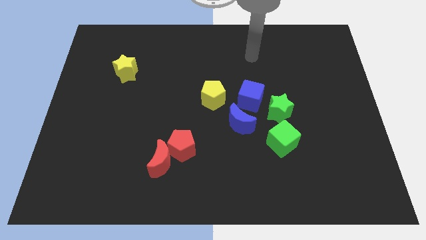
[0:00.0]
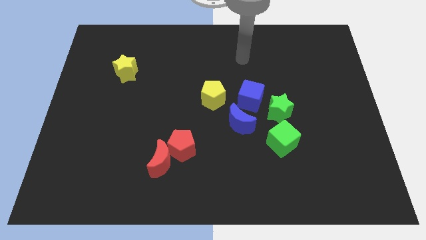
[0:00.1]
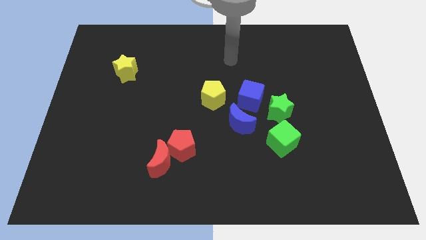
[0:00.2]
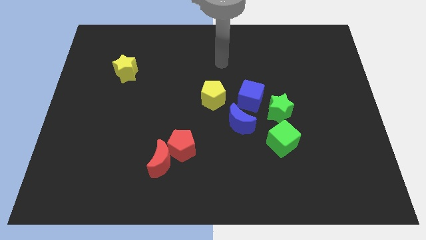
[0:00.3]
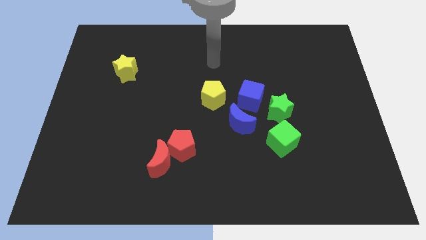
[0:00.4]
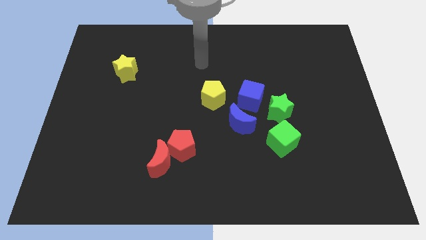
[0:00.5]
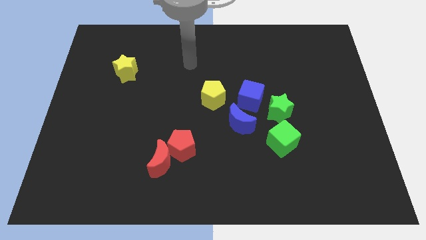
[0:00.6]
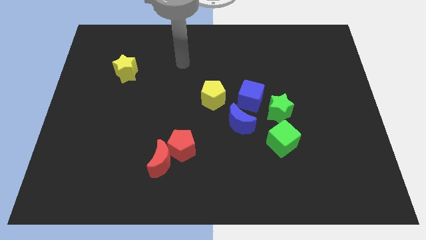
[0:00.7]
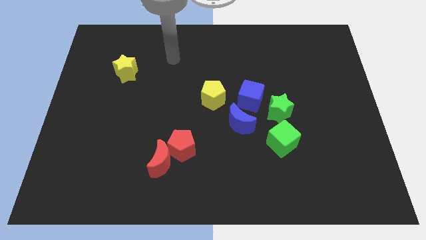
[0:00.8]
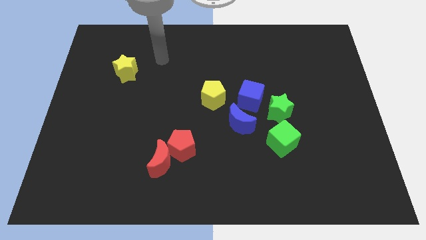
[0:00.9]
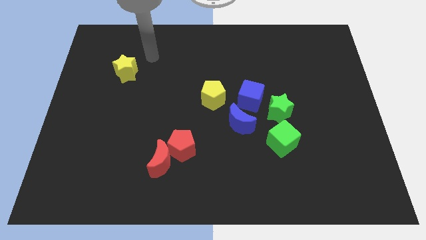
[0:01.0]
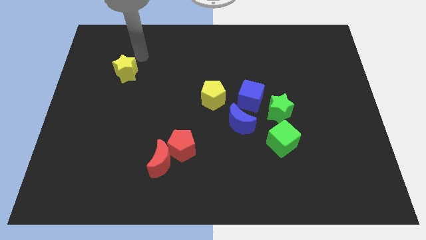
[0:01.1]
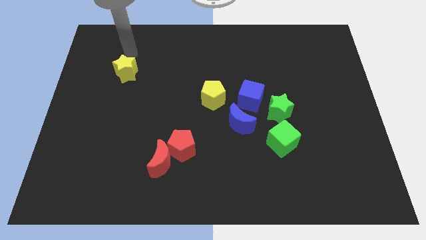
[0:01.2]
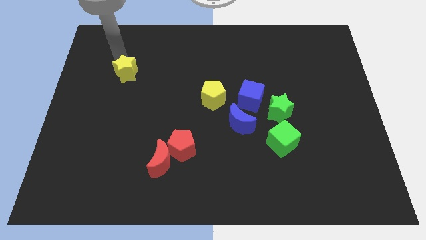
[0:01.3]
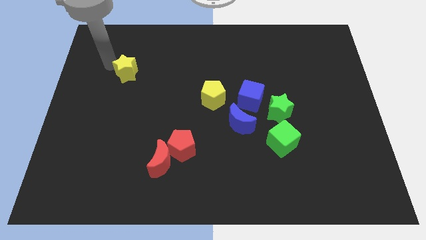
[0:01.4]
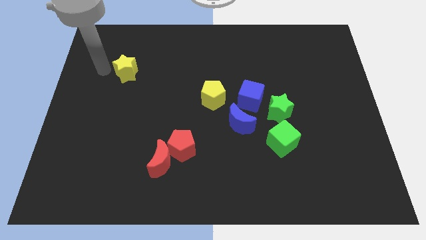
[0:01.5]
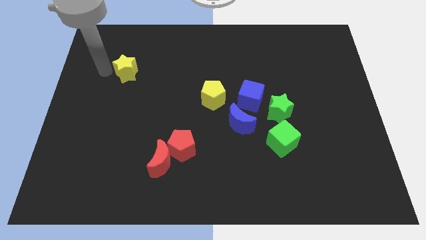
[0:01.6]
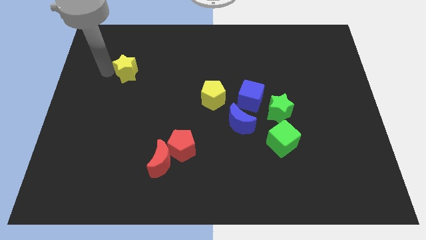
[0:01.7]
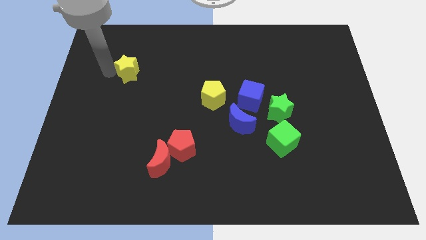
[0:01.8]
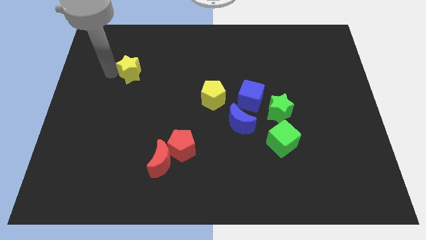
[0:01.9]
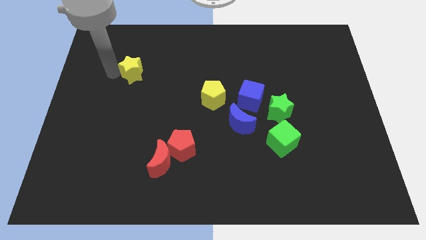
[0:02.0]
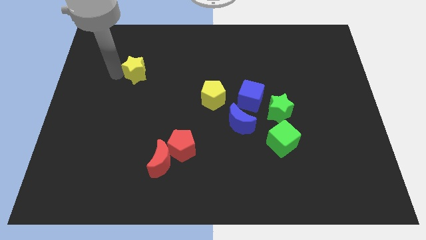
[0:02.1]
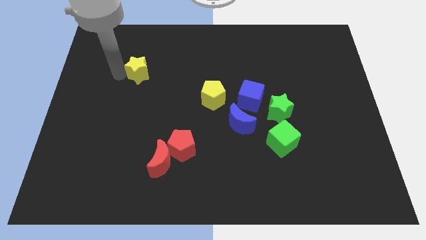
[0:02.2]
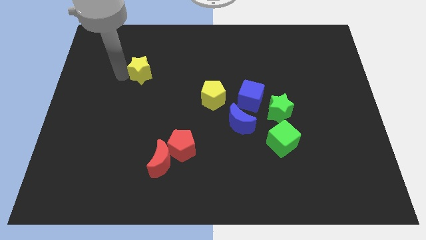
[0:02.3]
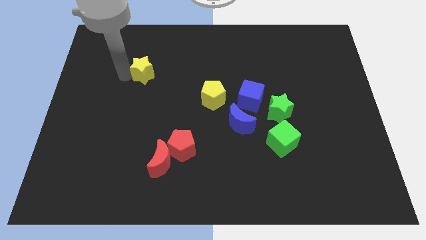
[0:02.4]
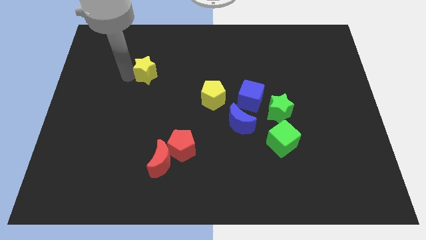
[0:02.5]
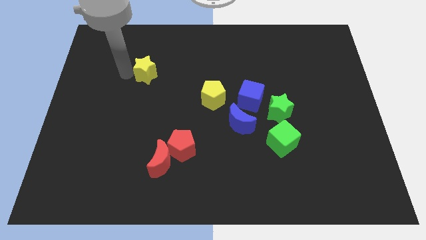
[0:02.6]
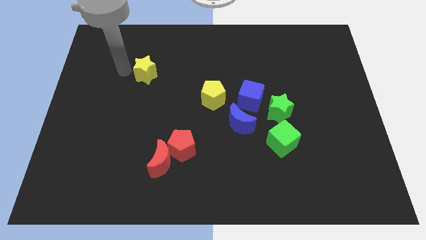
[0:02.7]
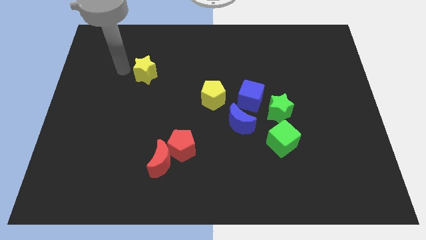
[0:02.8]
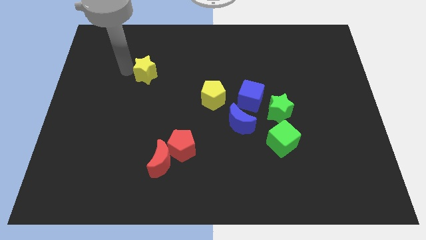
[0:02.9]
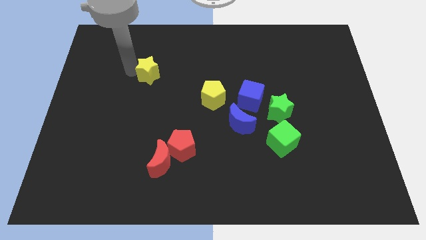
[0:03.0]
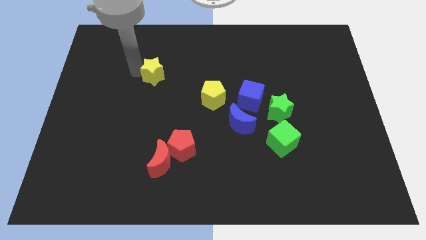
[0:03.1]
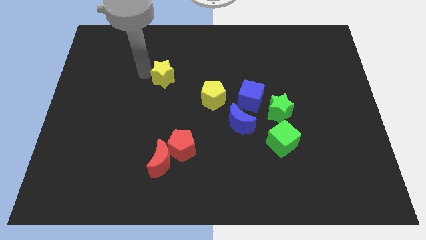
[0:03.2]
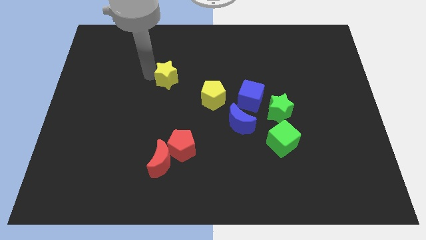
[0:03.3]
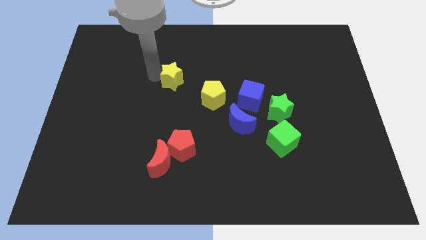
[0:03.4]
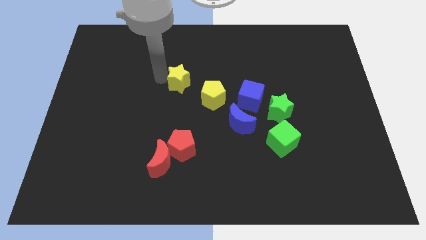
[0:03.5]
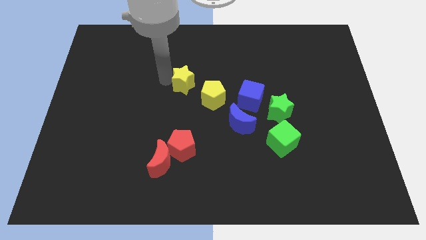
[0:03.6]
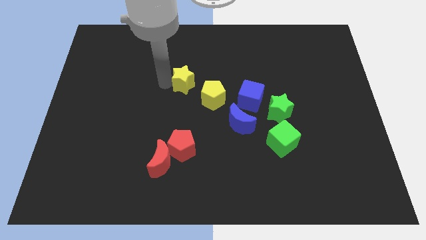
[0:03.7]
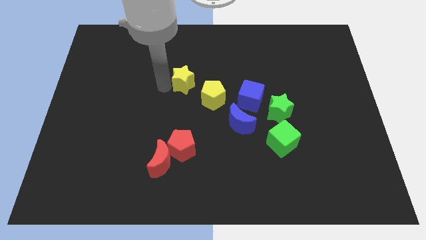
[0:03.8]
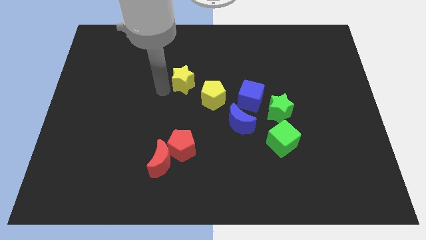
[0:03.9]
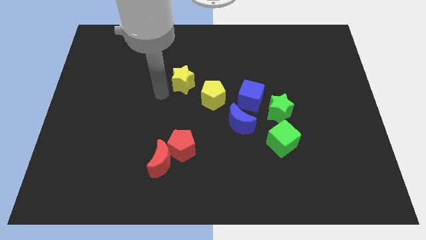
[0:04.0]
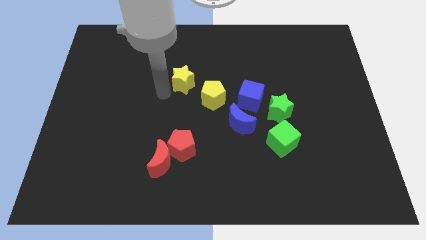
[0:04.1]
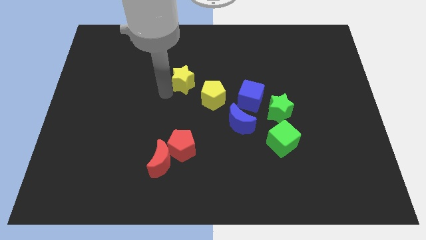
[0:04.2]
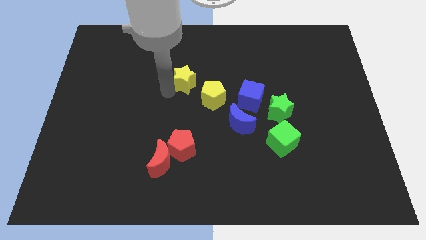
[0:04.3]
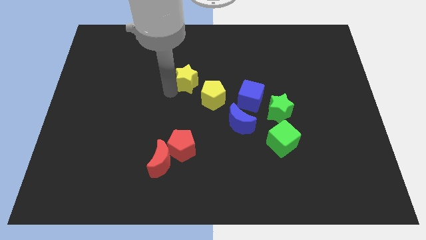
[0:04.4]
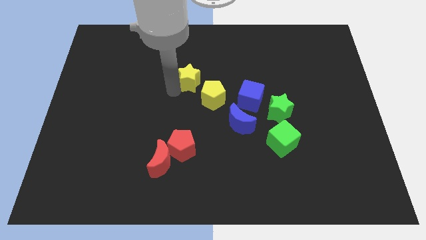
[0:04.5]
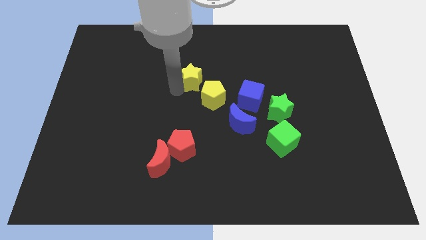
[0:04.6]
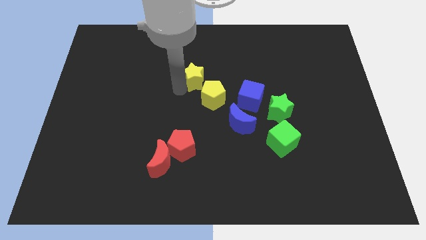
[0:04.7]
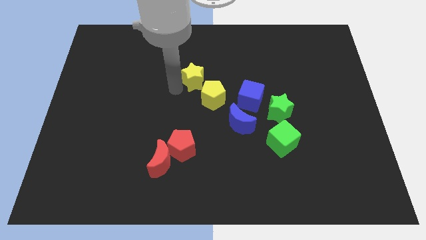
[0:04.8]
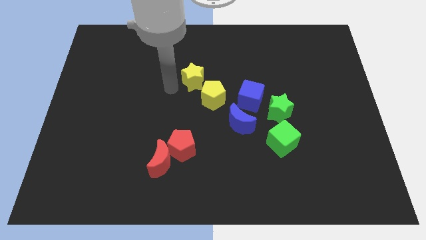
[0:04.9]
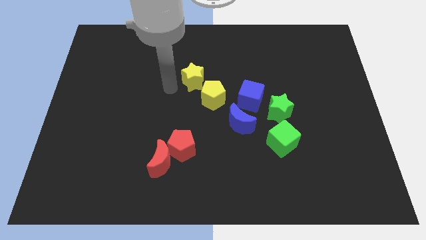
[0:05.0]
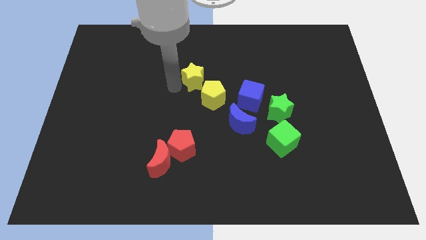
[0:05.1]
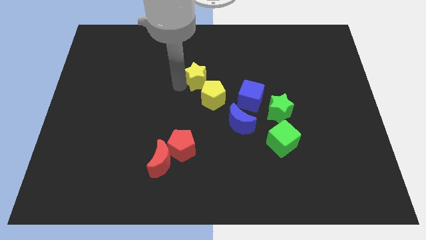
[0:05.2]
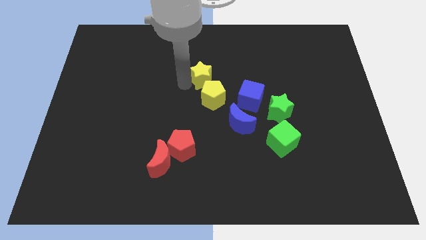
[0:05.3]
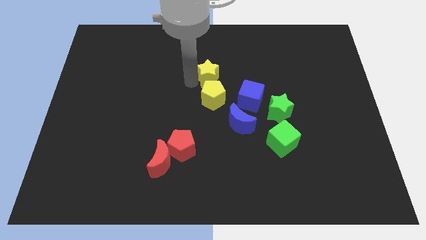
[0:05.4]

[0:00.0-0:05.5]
push the yellow star to the right

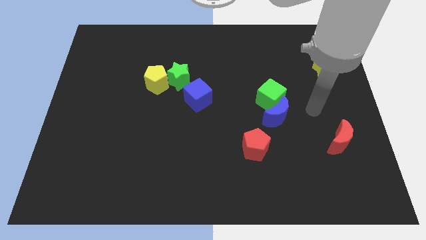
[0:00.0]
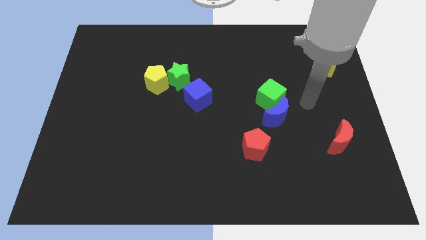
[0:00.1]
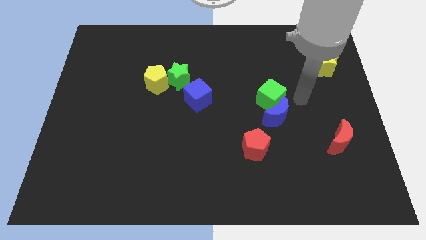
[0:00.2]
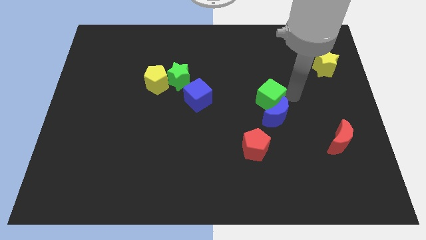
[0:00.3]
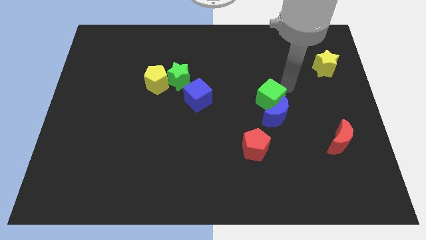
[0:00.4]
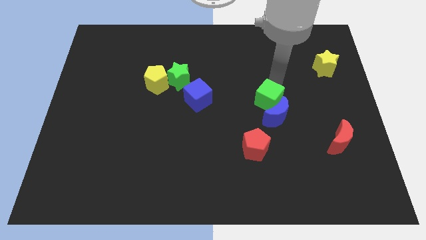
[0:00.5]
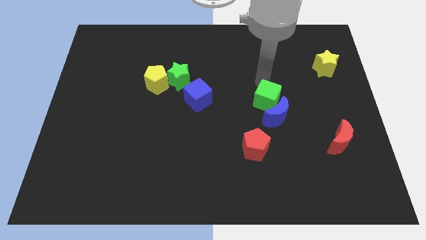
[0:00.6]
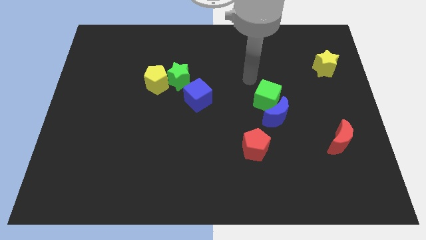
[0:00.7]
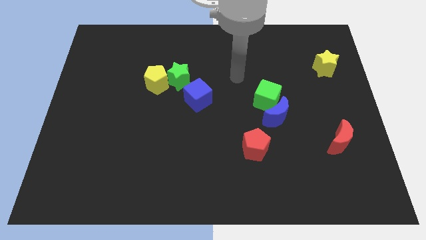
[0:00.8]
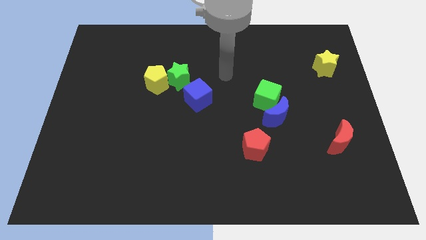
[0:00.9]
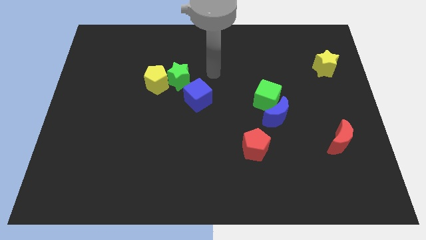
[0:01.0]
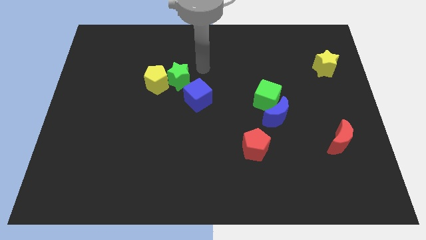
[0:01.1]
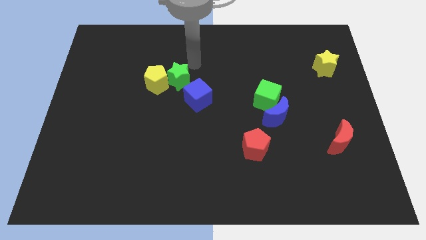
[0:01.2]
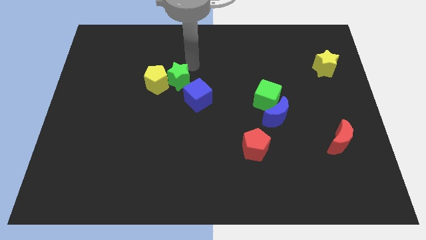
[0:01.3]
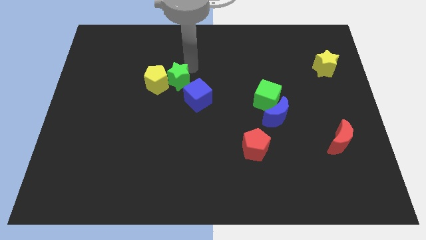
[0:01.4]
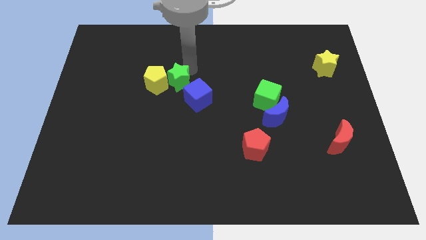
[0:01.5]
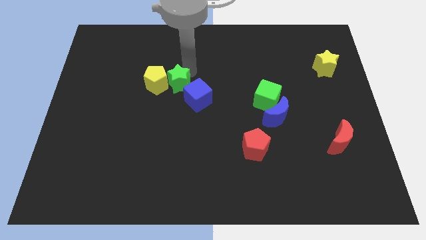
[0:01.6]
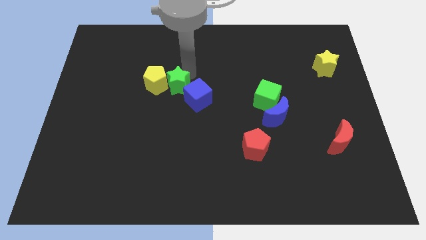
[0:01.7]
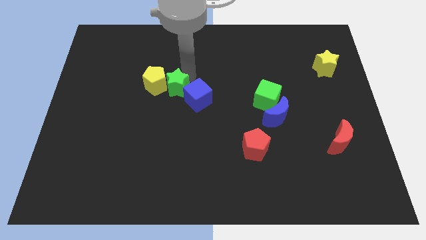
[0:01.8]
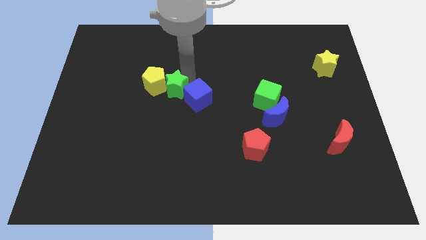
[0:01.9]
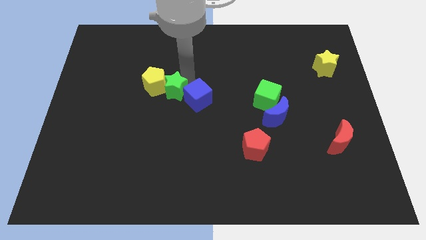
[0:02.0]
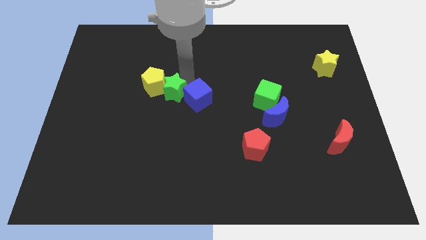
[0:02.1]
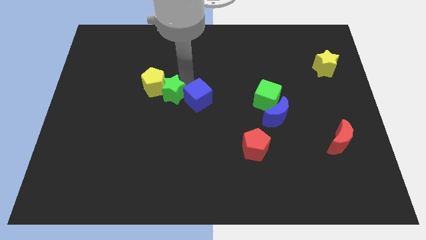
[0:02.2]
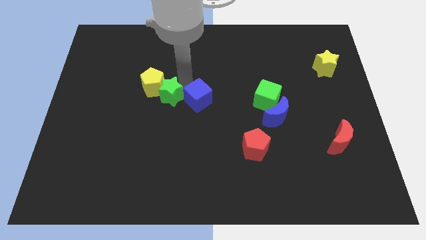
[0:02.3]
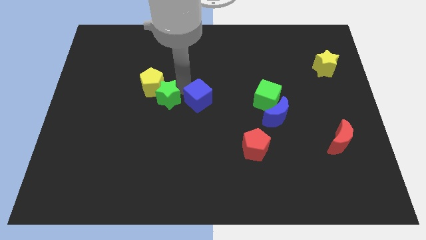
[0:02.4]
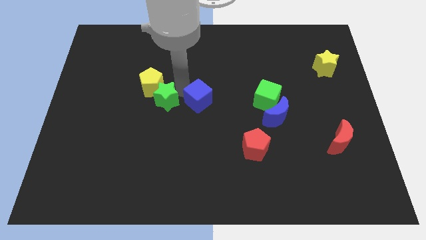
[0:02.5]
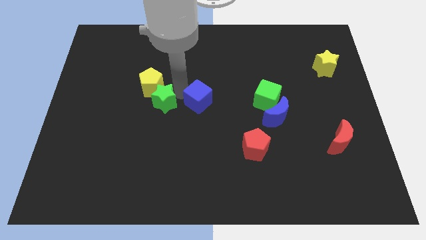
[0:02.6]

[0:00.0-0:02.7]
slightly move the green star diagonally down and left

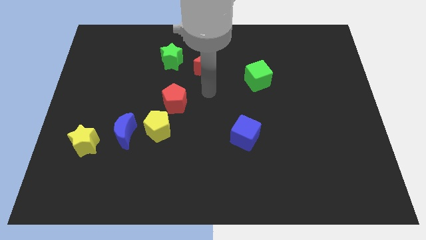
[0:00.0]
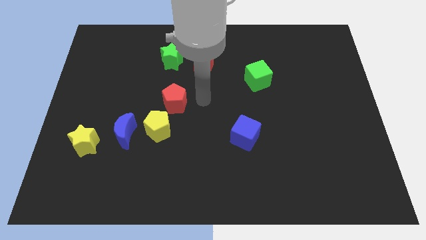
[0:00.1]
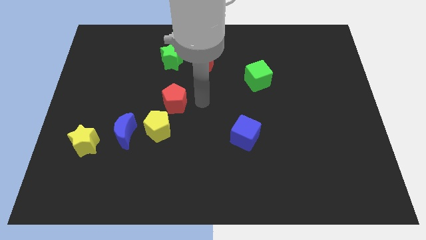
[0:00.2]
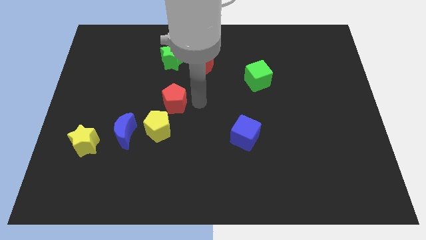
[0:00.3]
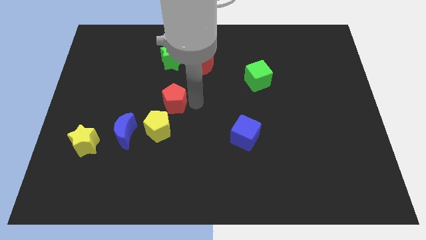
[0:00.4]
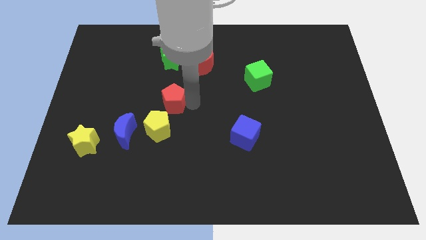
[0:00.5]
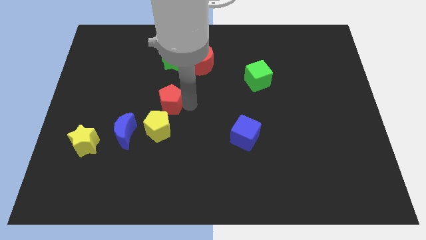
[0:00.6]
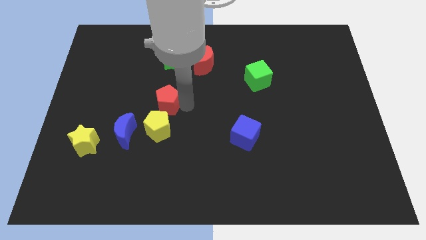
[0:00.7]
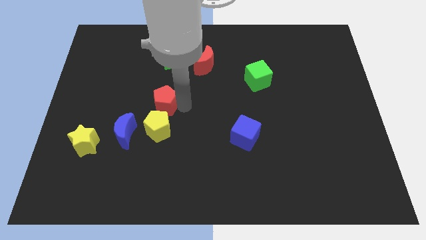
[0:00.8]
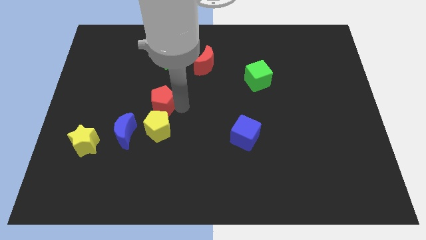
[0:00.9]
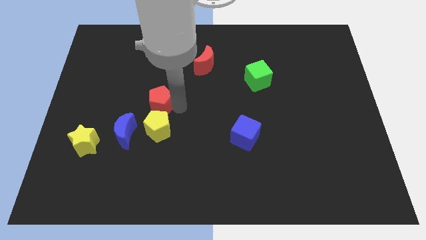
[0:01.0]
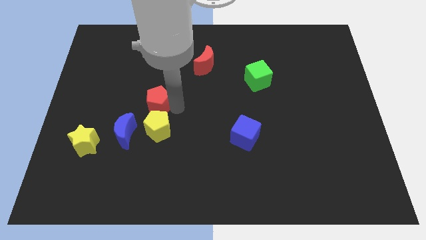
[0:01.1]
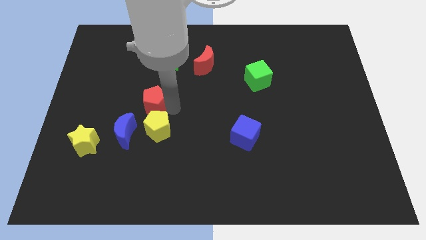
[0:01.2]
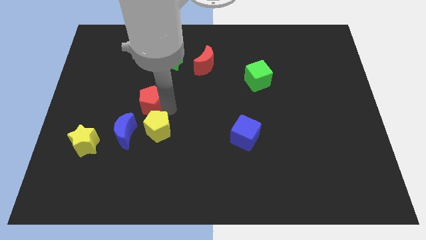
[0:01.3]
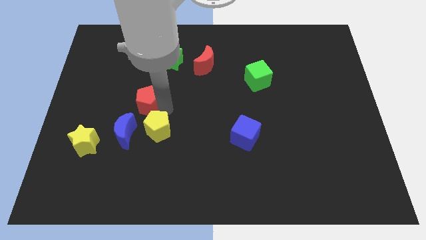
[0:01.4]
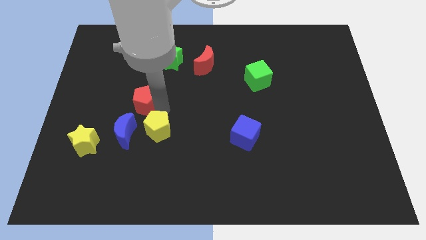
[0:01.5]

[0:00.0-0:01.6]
move the red pentagon a bit to the left
